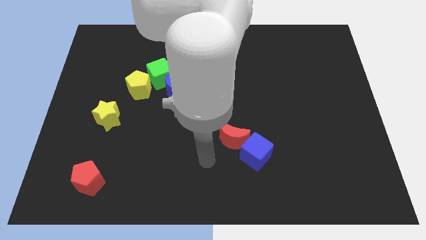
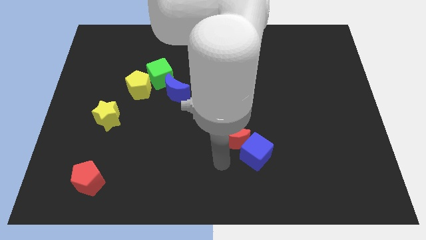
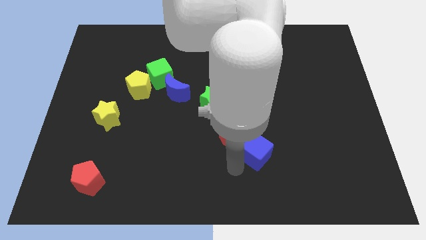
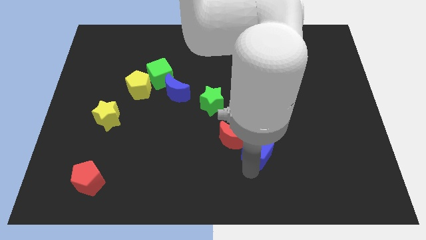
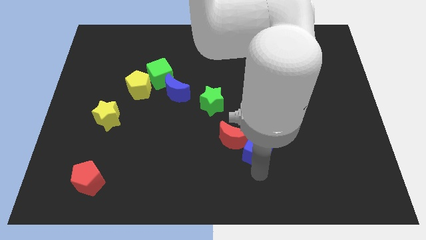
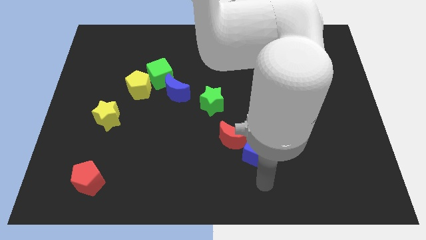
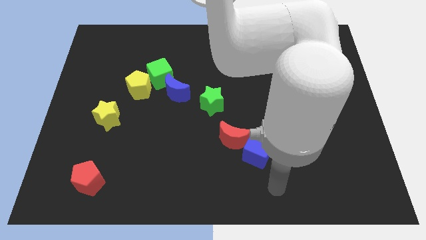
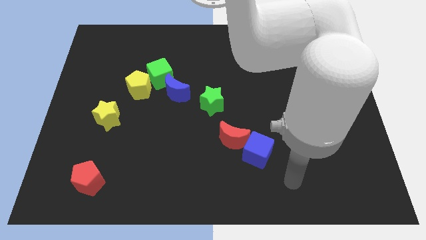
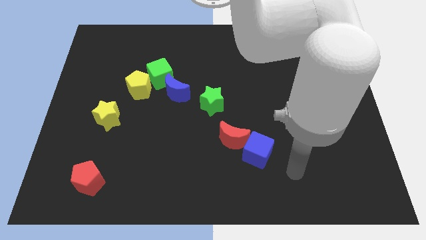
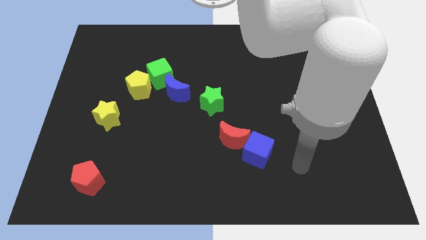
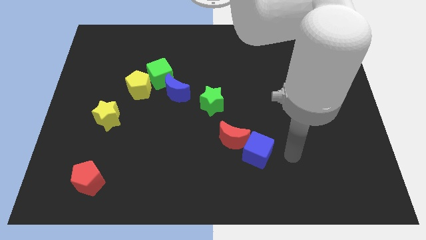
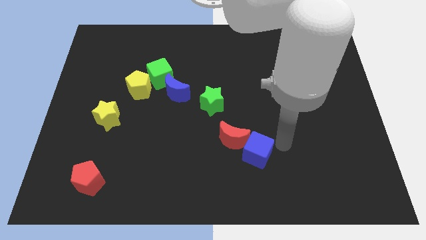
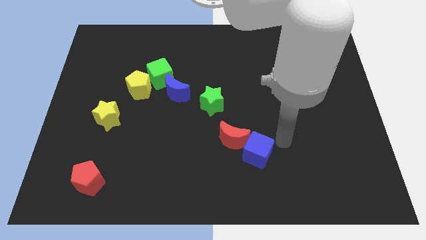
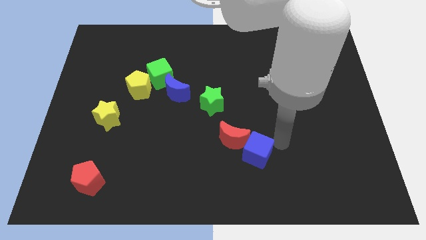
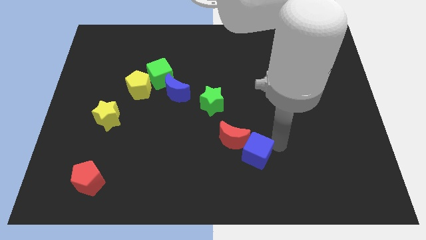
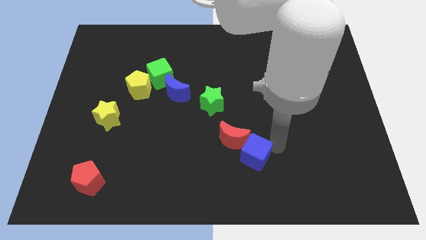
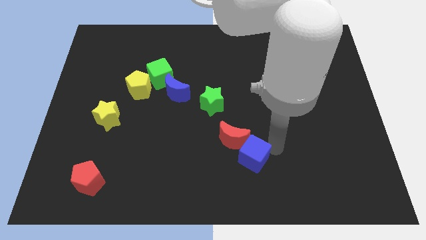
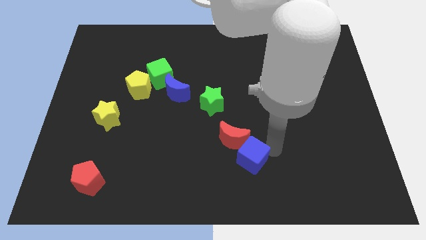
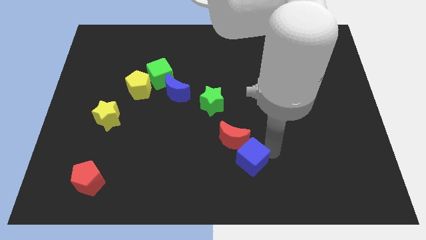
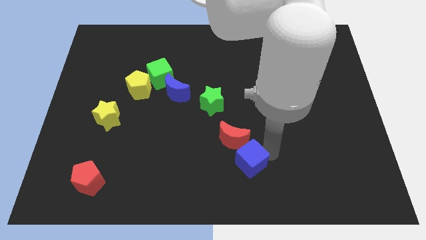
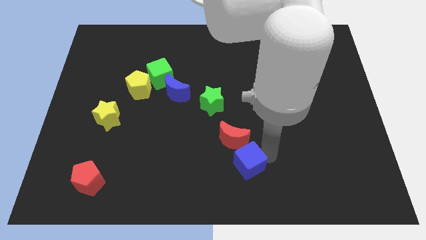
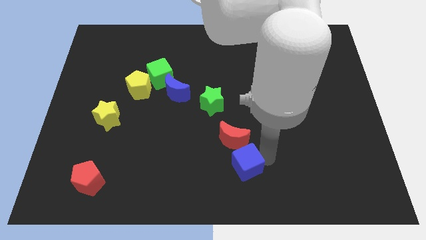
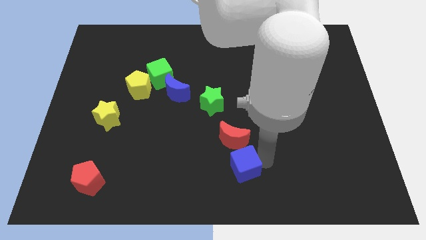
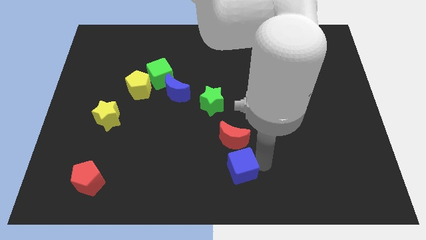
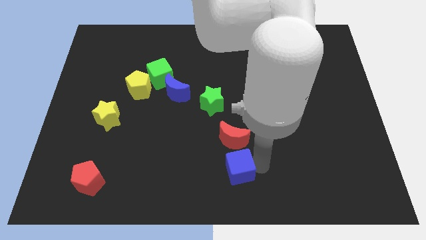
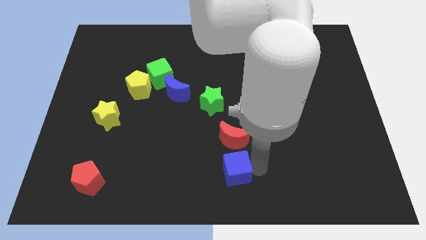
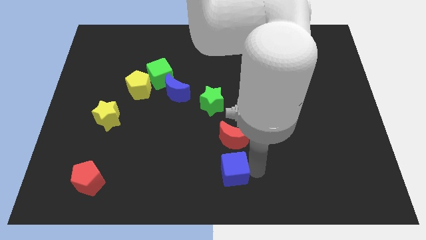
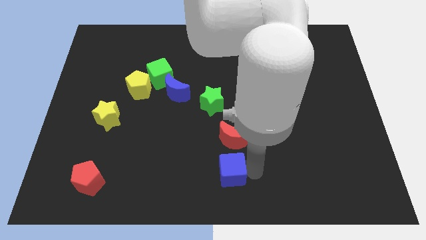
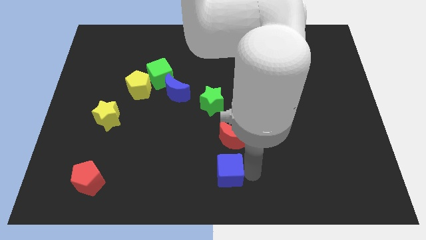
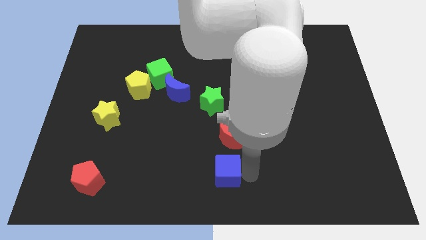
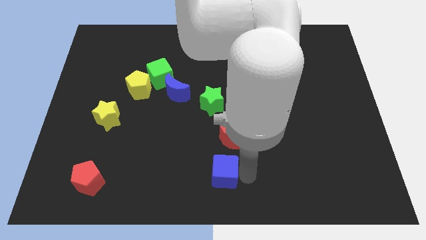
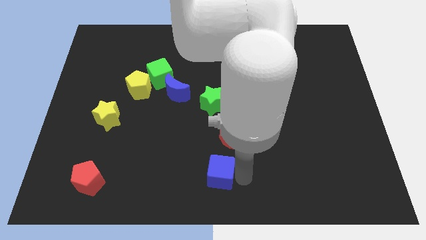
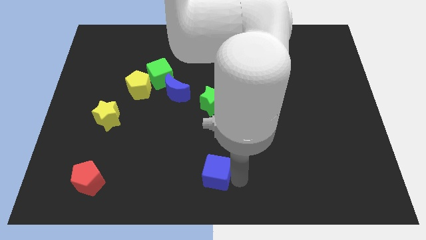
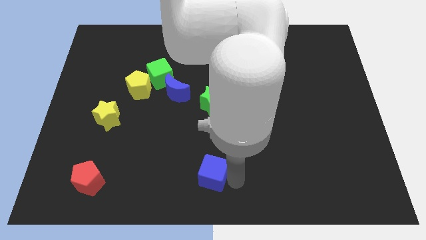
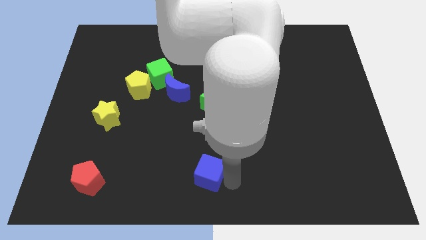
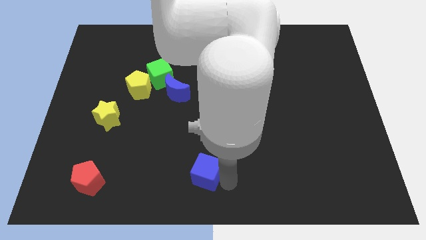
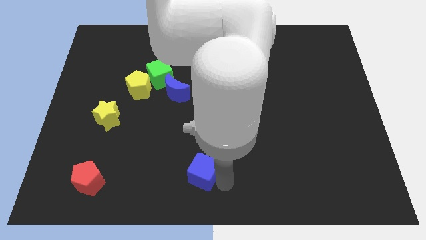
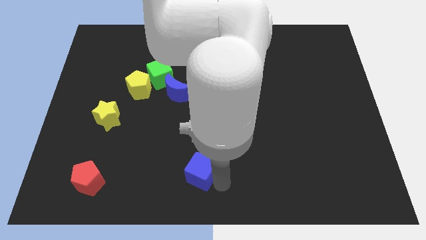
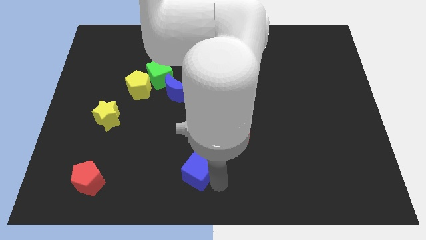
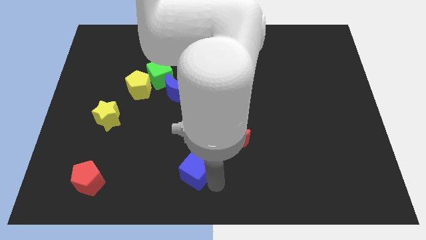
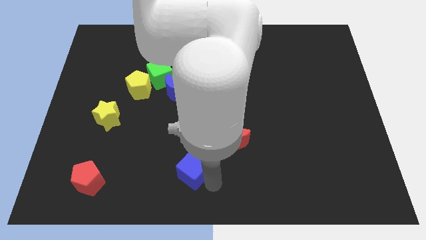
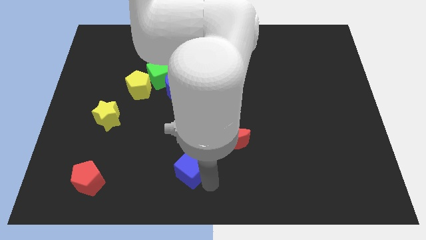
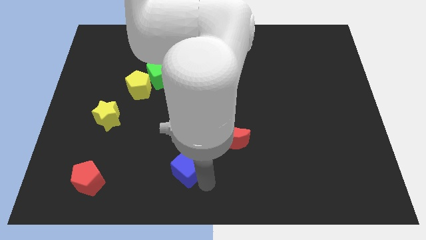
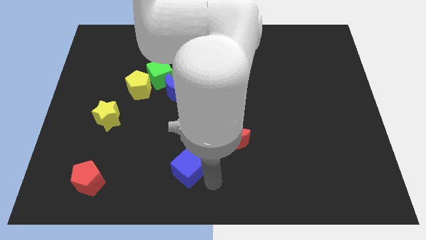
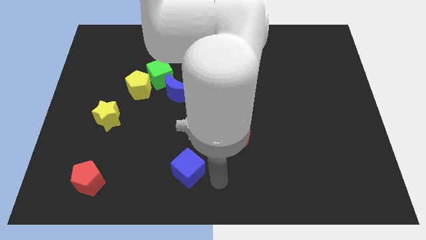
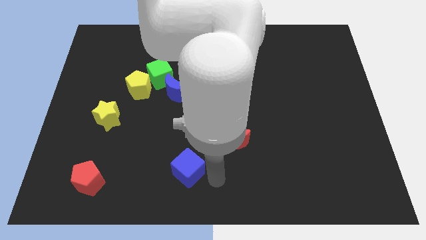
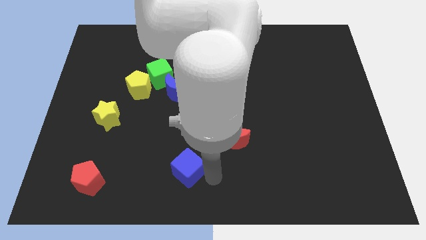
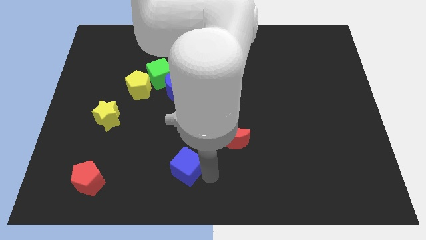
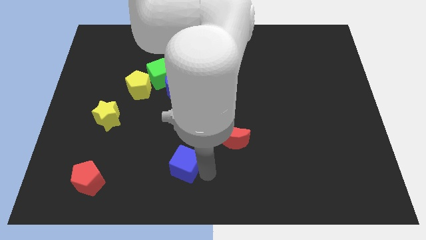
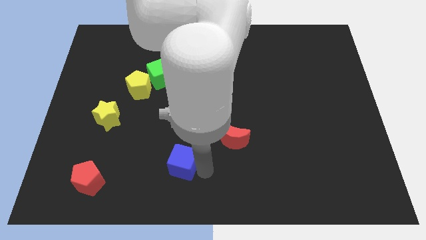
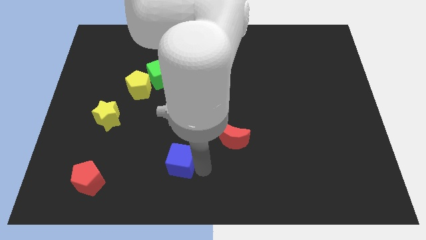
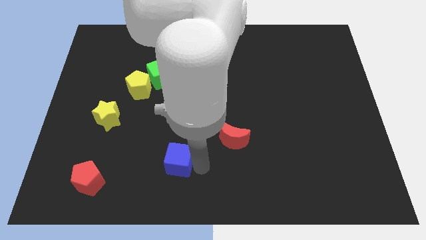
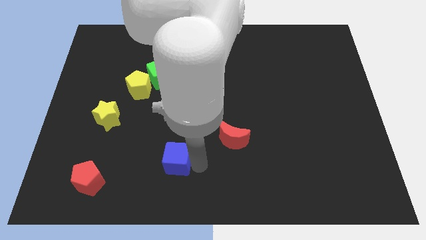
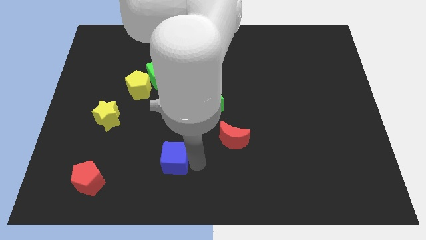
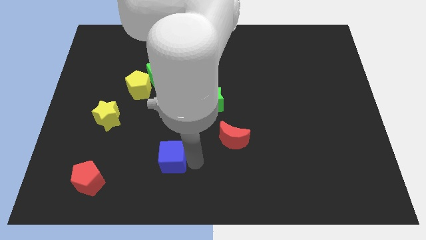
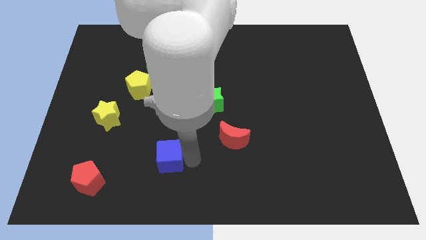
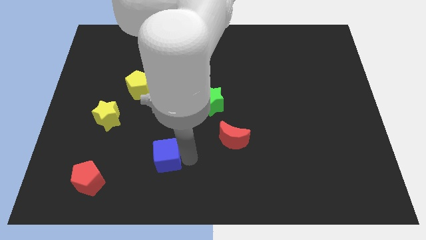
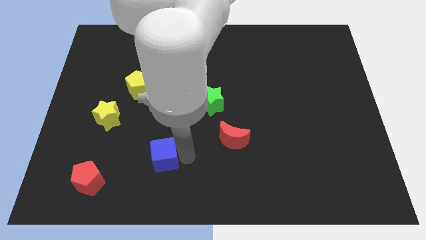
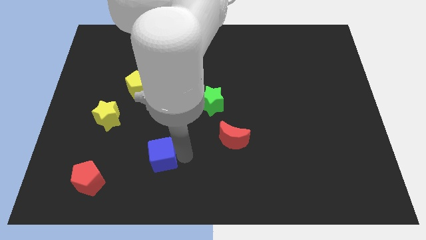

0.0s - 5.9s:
move the blue cube left

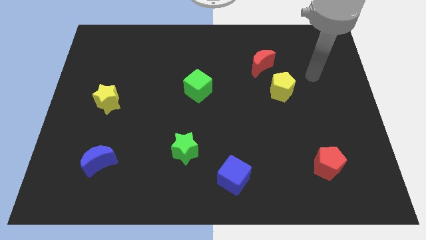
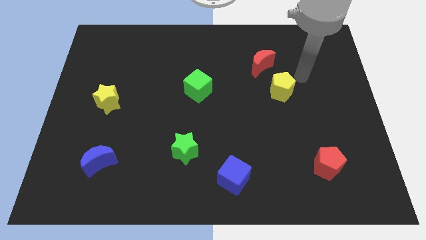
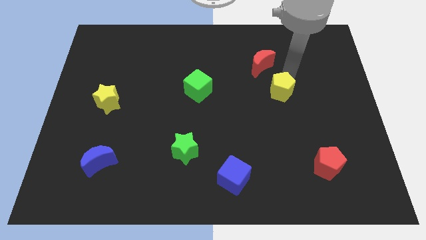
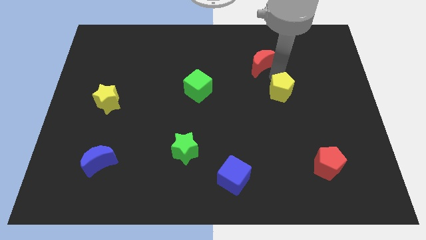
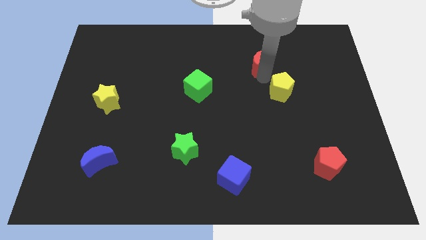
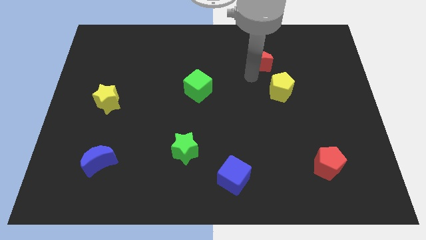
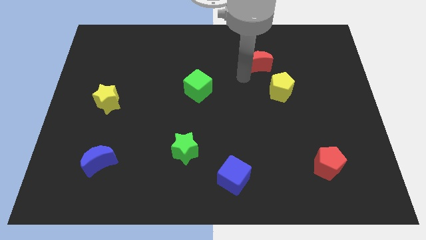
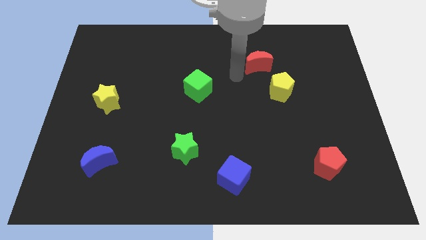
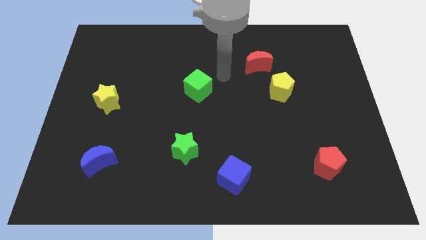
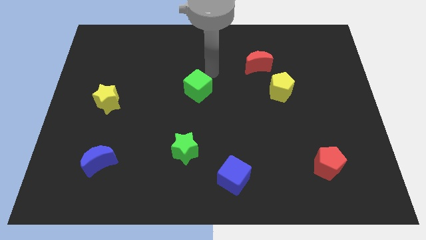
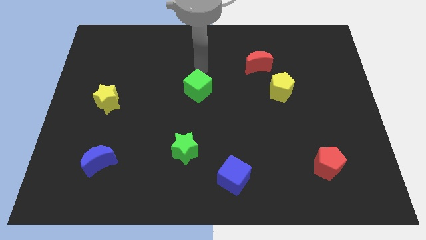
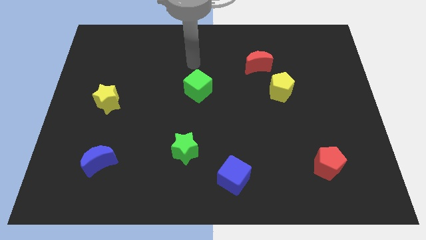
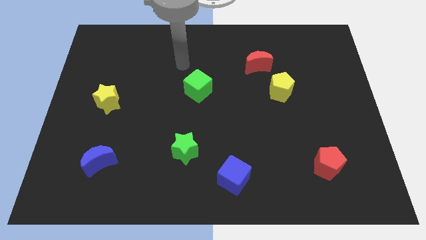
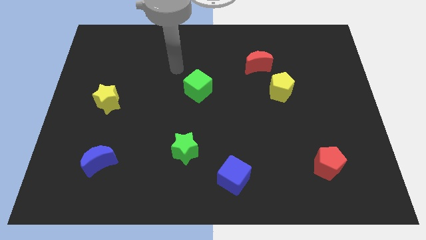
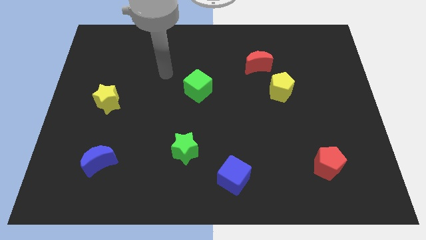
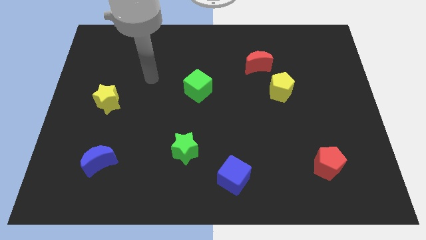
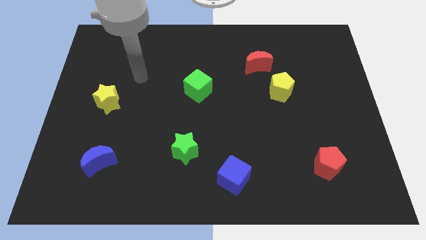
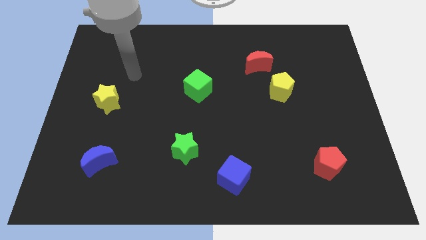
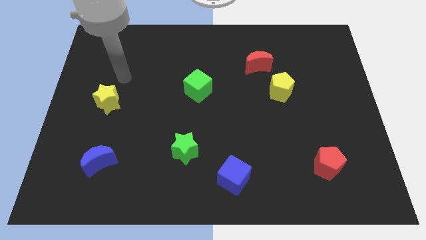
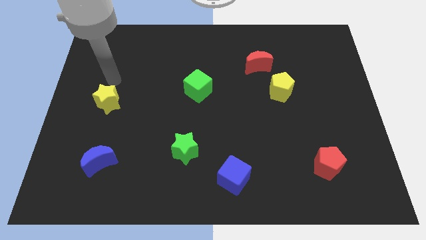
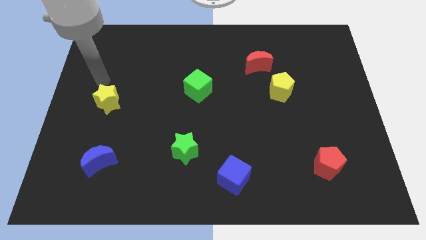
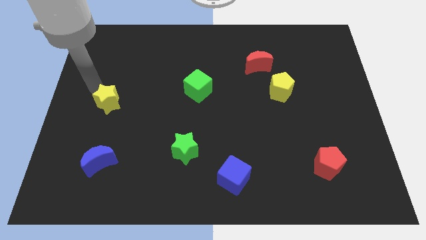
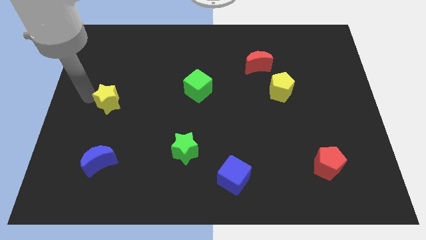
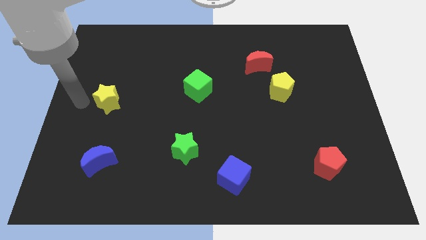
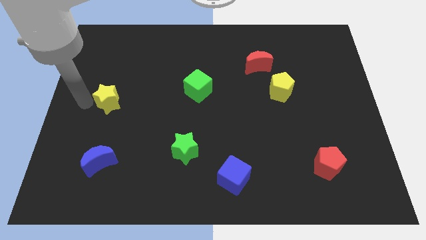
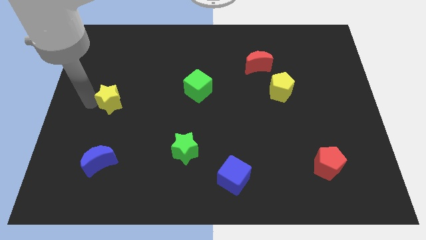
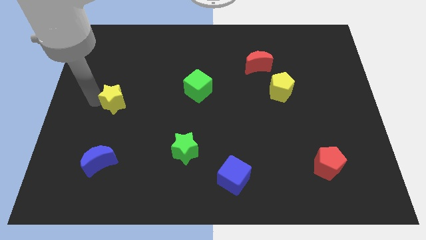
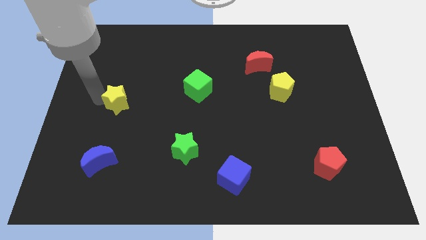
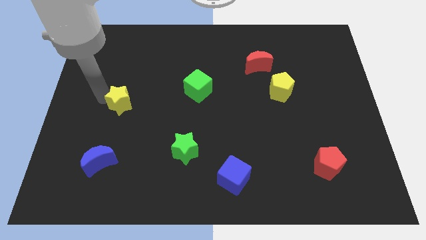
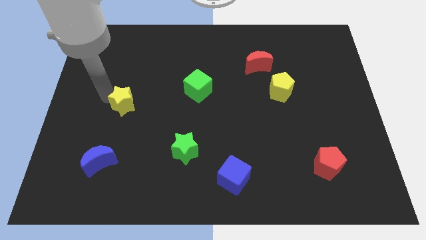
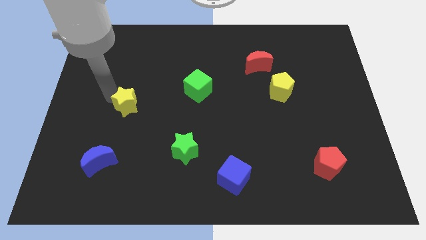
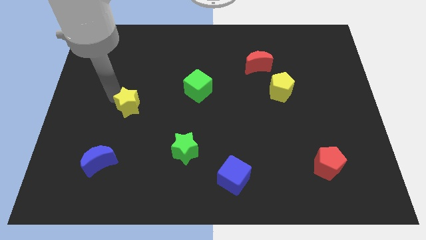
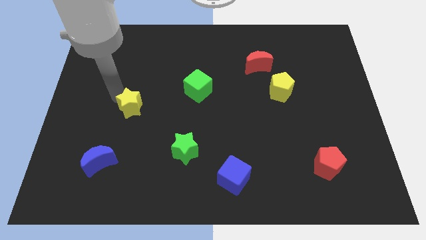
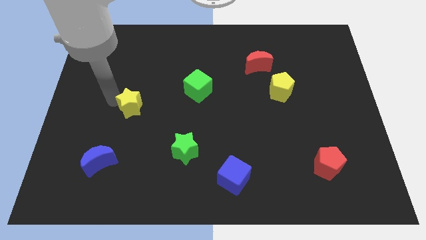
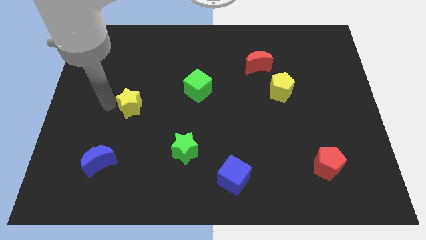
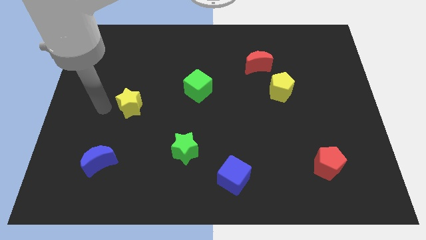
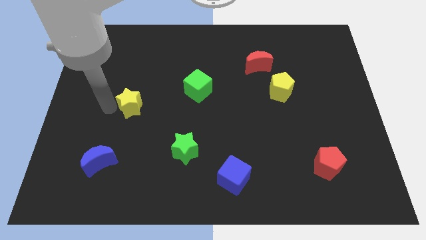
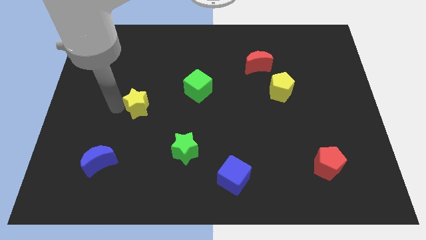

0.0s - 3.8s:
slide the yellow star to the right somewhat
